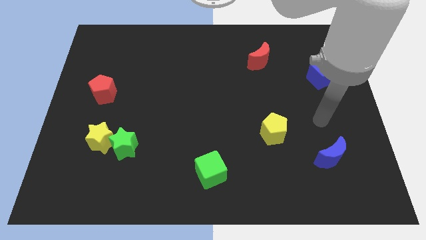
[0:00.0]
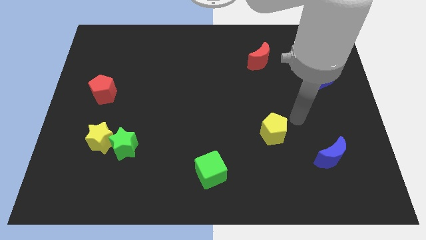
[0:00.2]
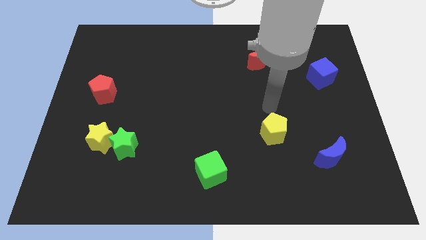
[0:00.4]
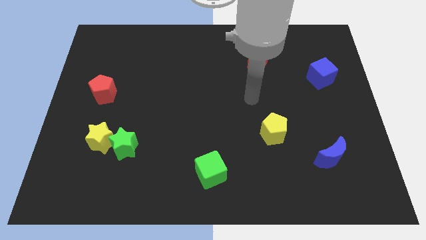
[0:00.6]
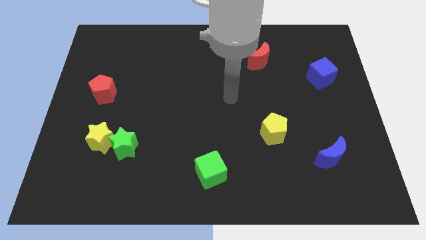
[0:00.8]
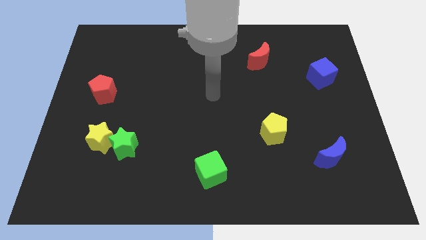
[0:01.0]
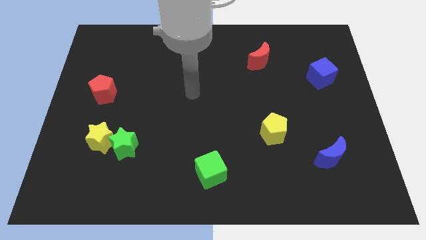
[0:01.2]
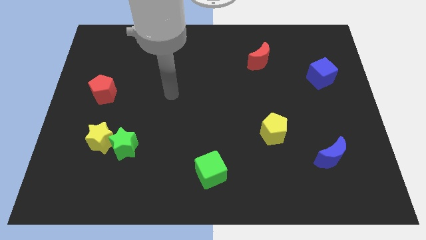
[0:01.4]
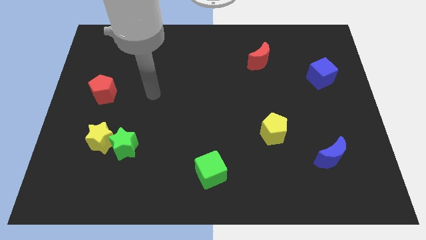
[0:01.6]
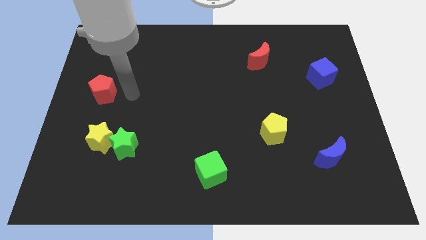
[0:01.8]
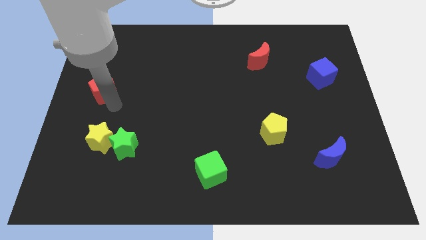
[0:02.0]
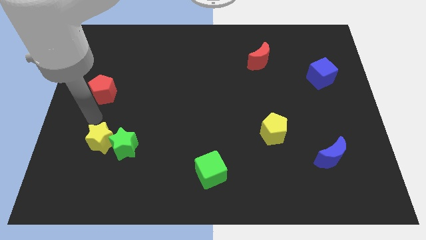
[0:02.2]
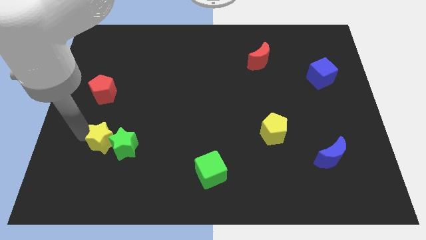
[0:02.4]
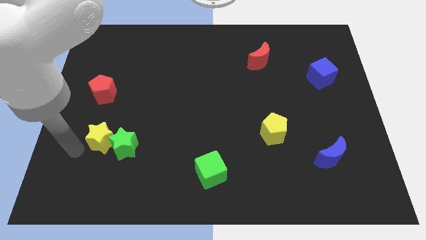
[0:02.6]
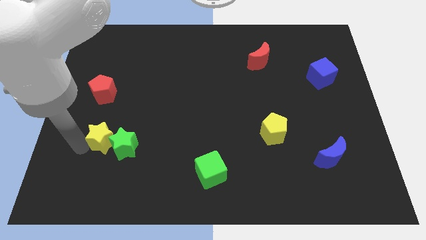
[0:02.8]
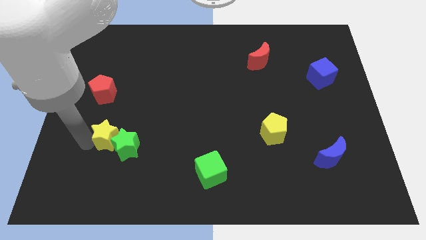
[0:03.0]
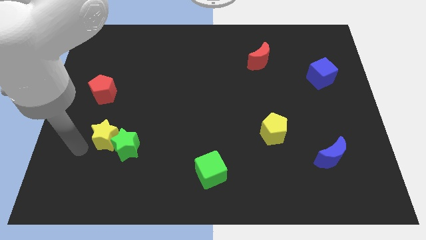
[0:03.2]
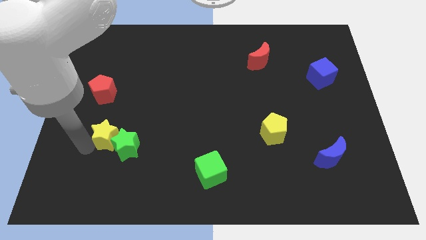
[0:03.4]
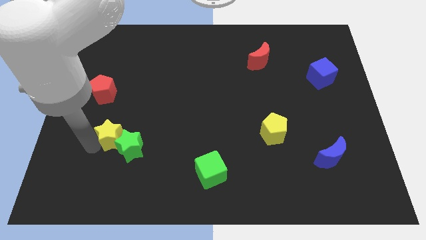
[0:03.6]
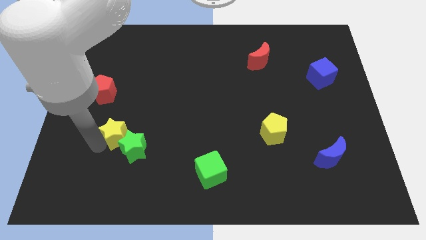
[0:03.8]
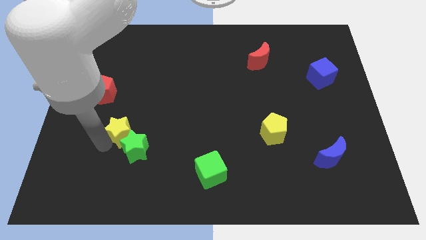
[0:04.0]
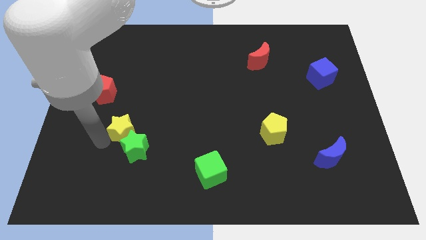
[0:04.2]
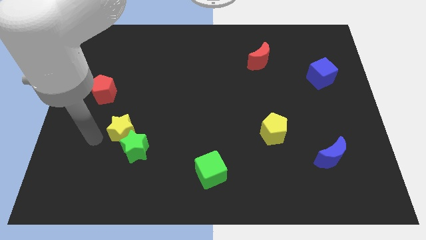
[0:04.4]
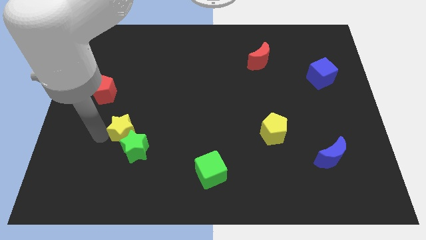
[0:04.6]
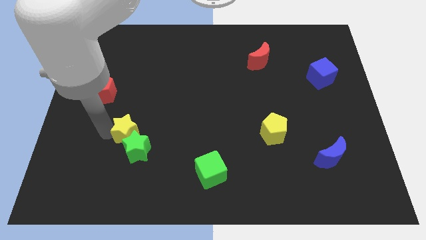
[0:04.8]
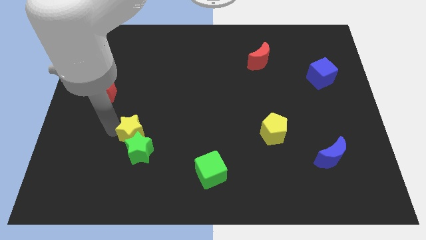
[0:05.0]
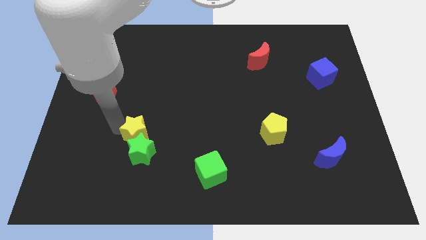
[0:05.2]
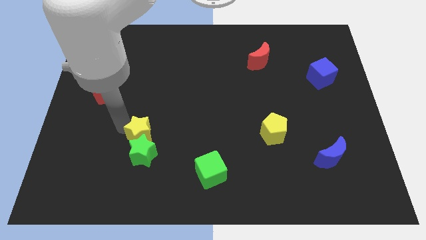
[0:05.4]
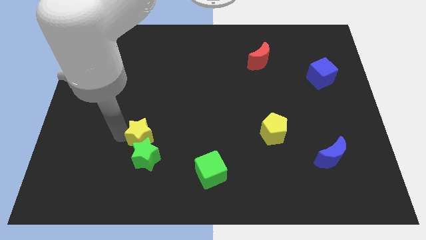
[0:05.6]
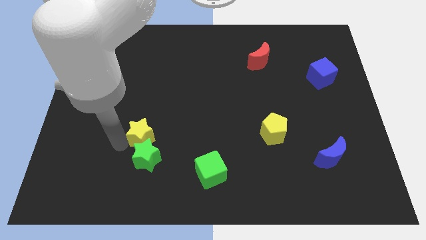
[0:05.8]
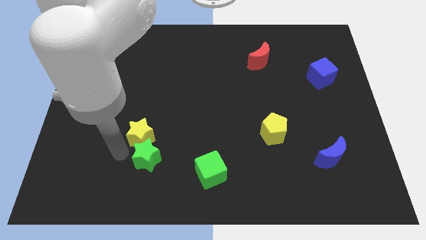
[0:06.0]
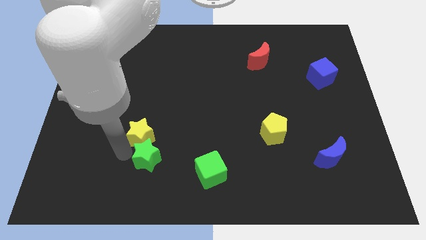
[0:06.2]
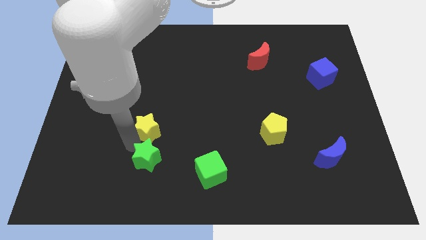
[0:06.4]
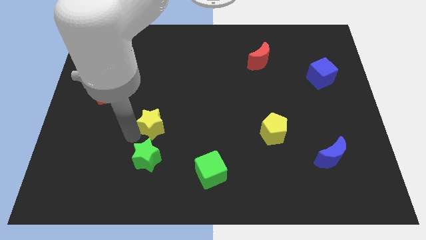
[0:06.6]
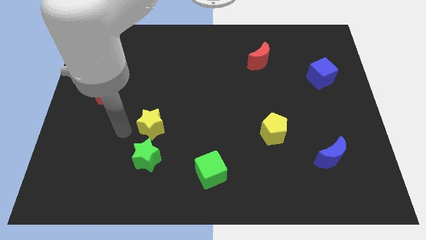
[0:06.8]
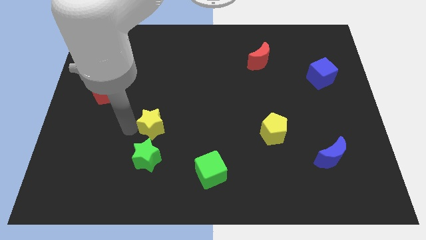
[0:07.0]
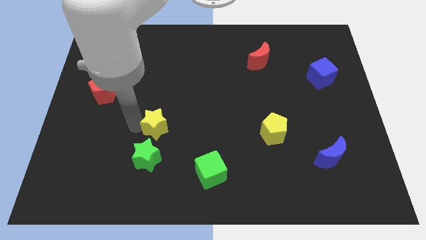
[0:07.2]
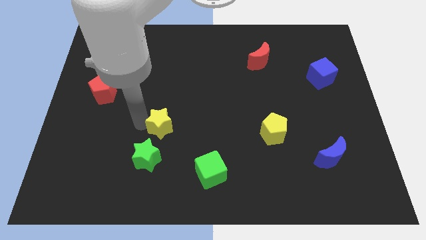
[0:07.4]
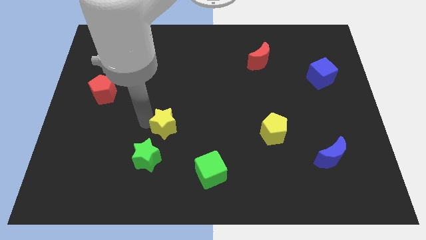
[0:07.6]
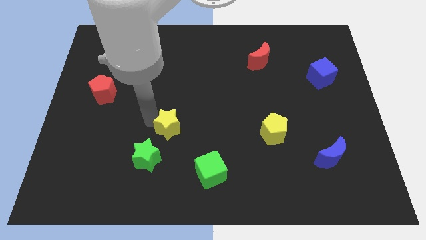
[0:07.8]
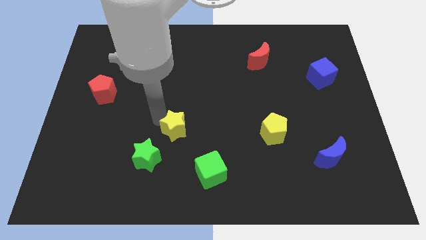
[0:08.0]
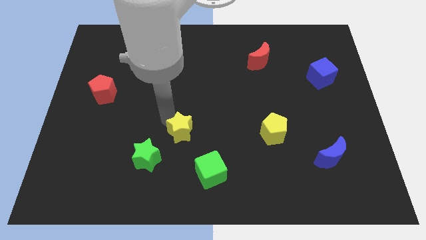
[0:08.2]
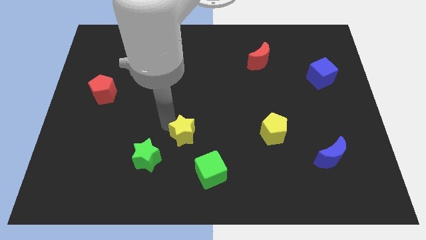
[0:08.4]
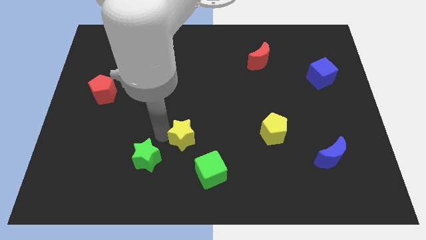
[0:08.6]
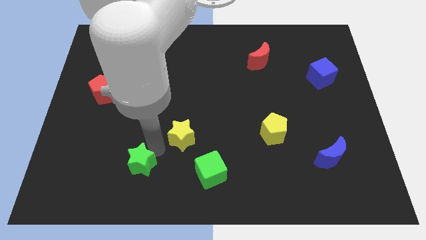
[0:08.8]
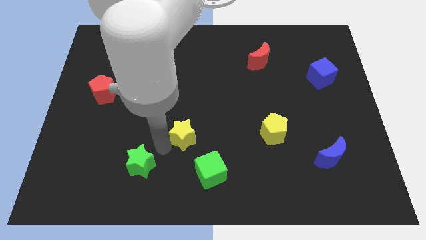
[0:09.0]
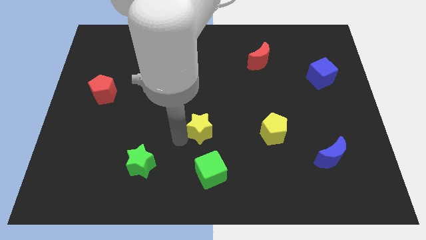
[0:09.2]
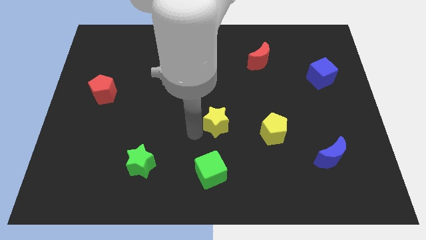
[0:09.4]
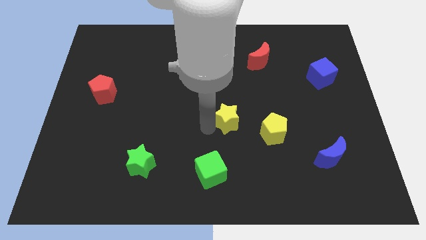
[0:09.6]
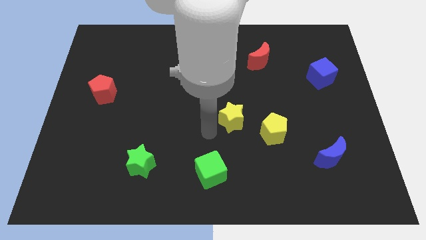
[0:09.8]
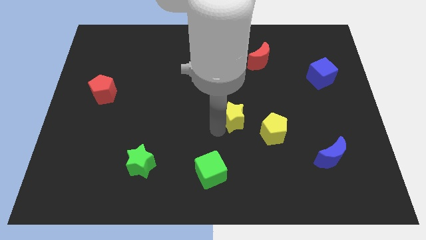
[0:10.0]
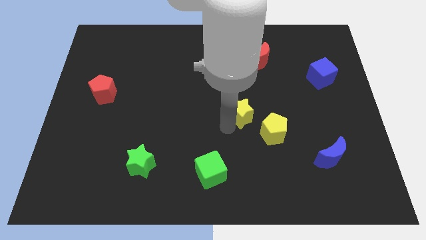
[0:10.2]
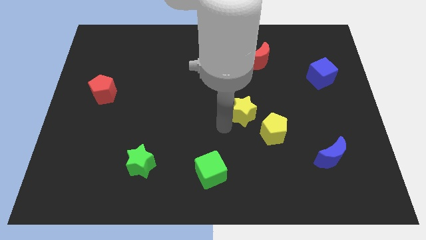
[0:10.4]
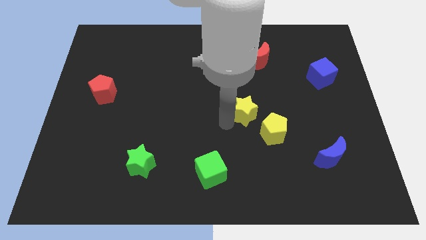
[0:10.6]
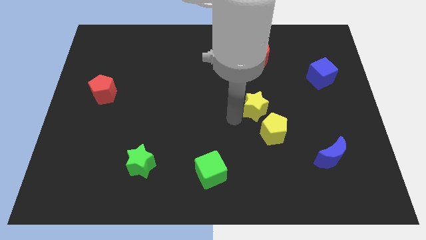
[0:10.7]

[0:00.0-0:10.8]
slide the yellow star to the top side of the yellow pentagon

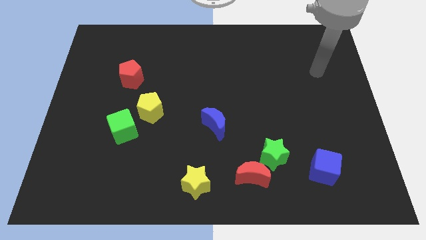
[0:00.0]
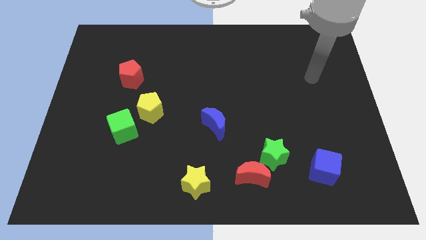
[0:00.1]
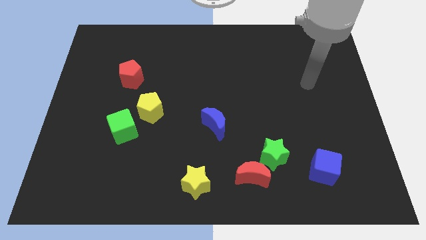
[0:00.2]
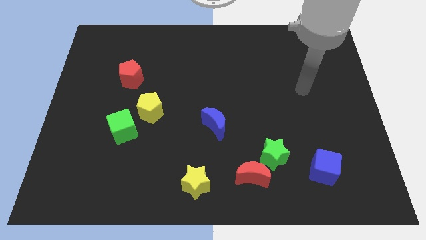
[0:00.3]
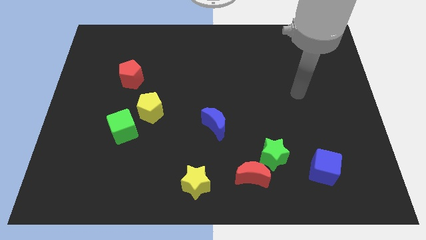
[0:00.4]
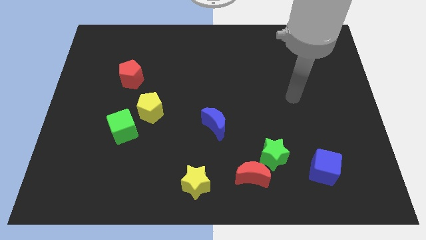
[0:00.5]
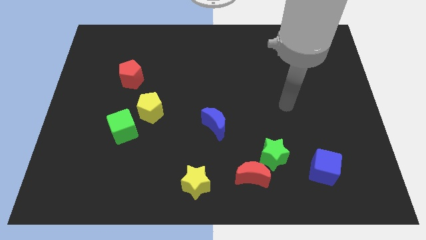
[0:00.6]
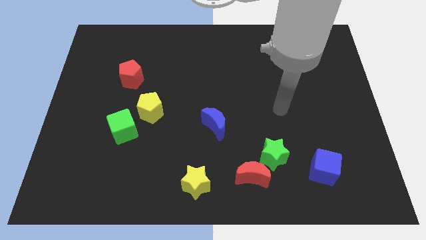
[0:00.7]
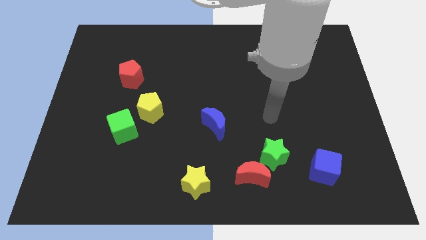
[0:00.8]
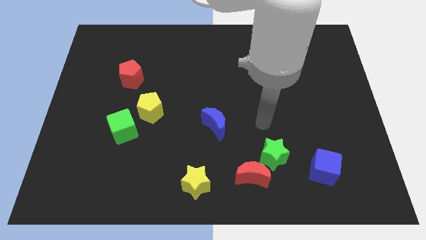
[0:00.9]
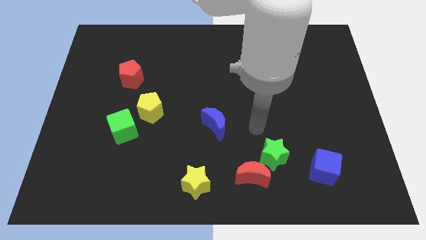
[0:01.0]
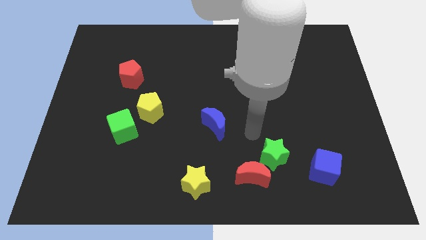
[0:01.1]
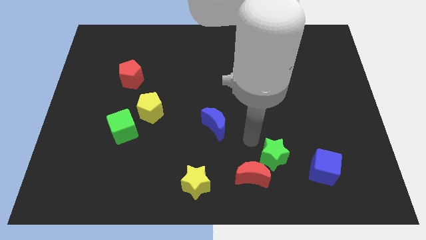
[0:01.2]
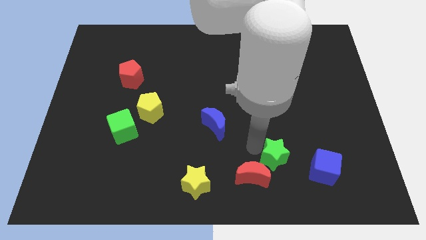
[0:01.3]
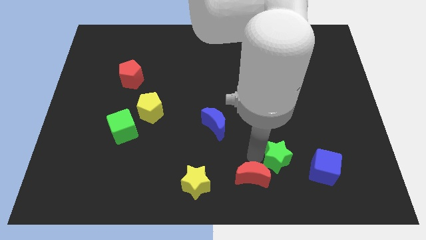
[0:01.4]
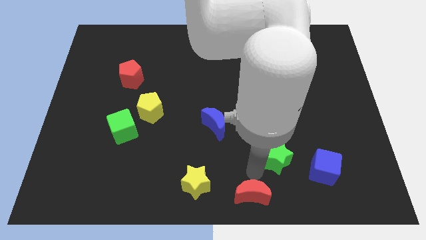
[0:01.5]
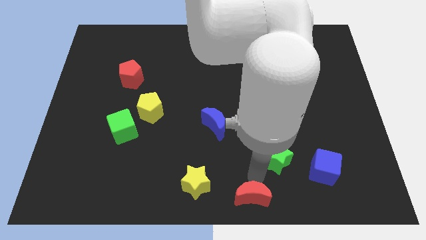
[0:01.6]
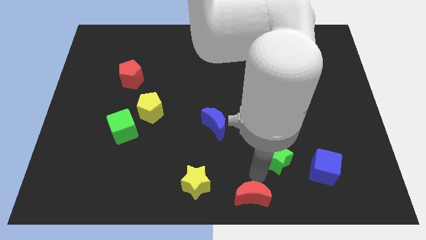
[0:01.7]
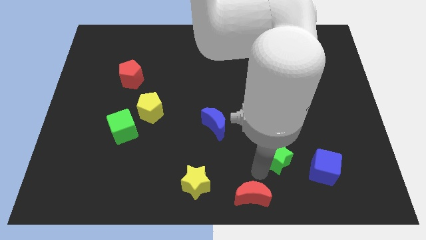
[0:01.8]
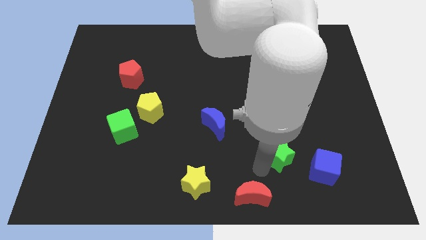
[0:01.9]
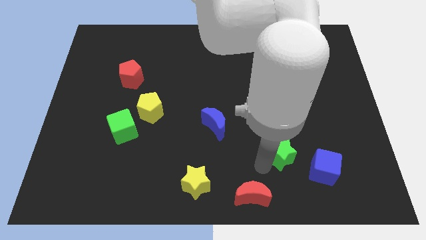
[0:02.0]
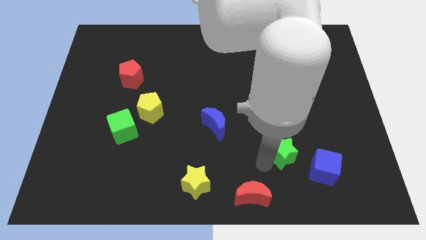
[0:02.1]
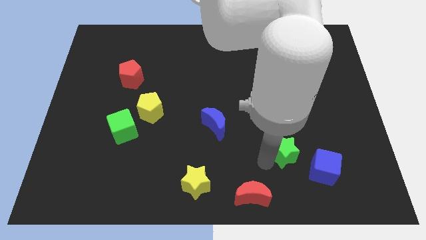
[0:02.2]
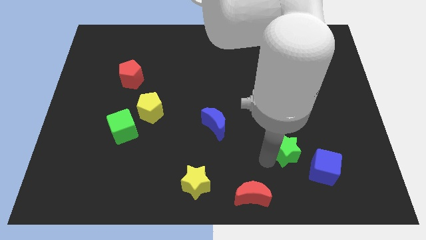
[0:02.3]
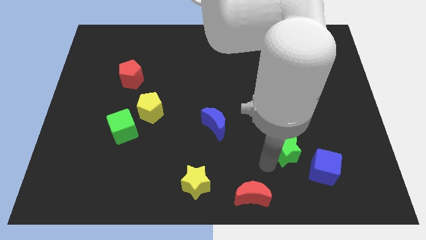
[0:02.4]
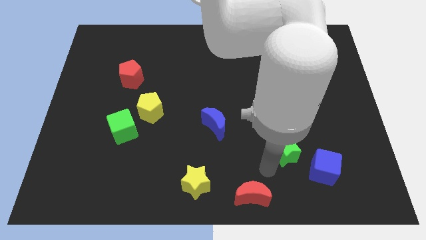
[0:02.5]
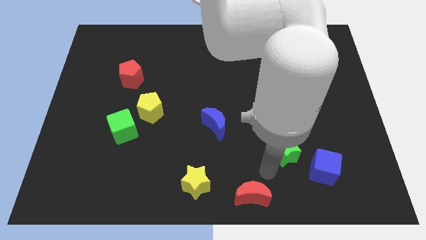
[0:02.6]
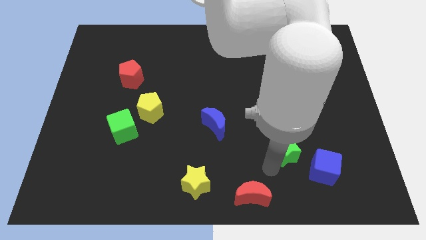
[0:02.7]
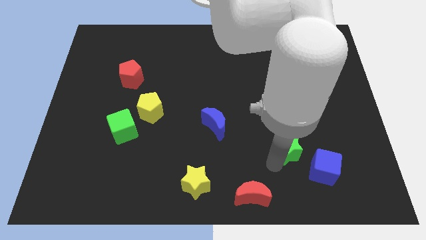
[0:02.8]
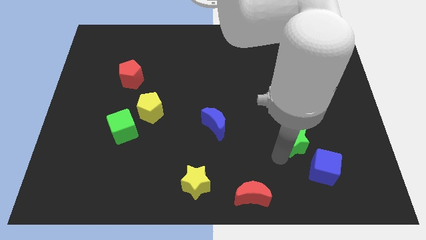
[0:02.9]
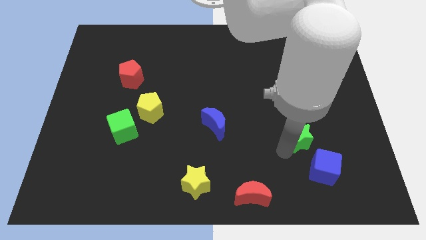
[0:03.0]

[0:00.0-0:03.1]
slide the green star to the top side of the blue cube
